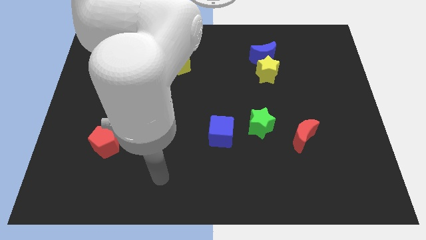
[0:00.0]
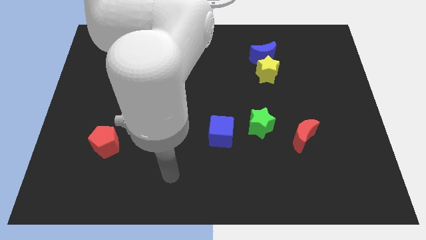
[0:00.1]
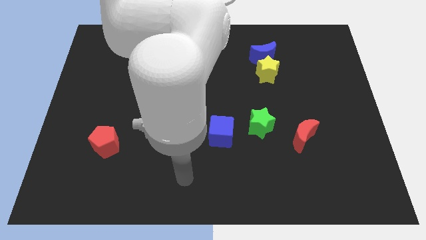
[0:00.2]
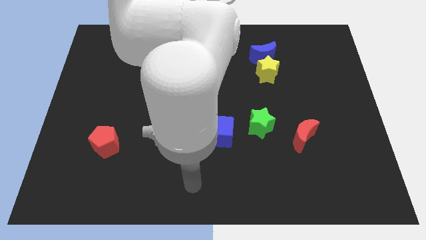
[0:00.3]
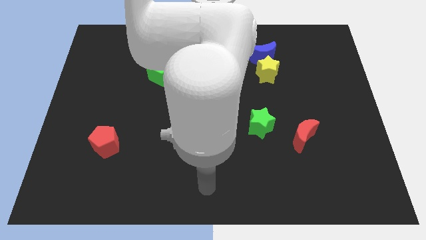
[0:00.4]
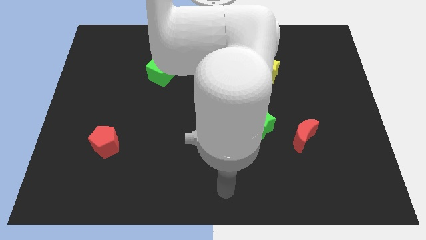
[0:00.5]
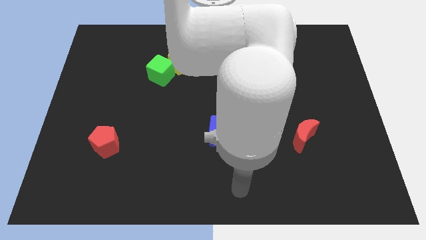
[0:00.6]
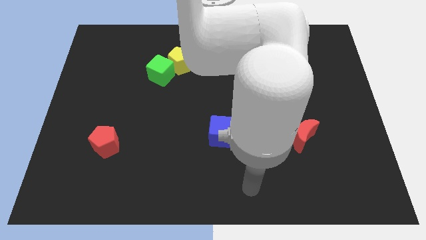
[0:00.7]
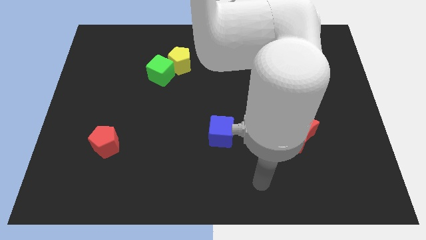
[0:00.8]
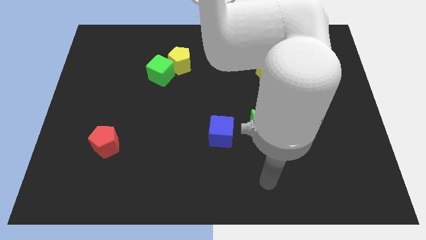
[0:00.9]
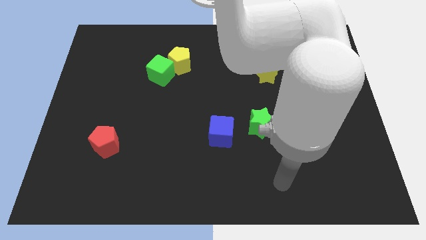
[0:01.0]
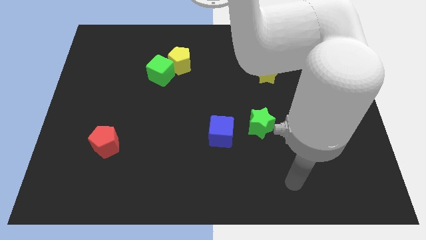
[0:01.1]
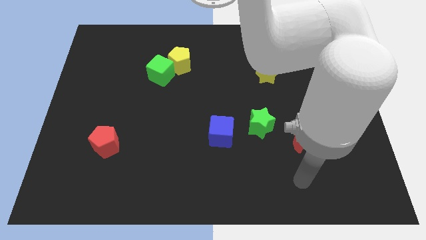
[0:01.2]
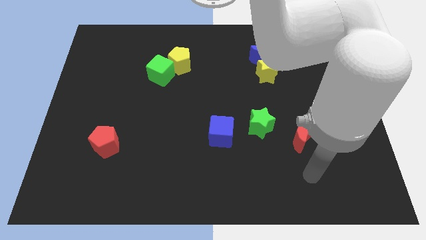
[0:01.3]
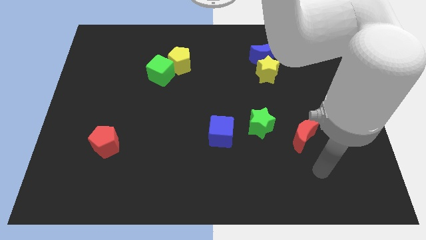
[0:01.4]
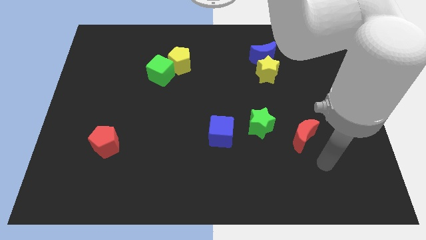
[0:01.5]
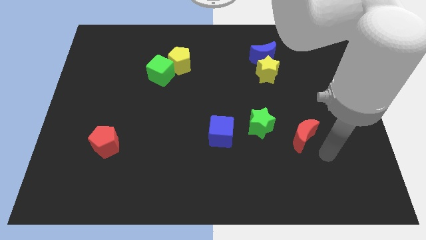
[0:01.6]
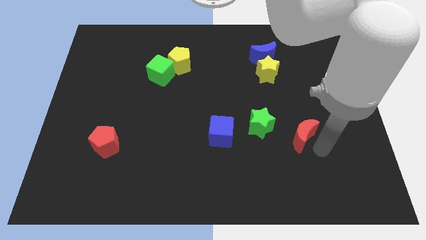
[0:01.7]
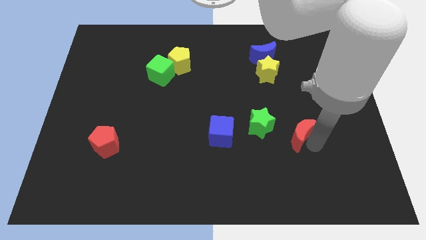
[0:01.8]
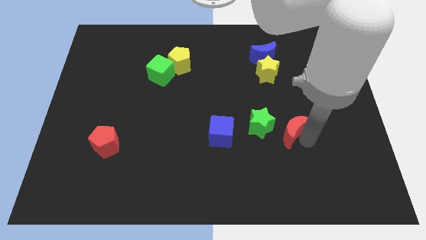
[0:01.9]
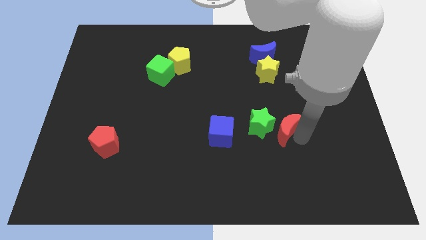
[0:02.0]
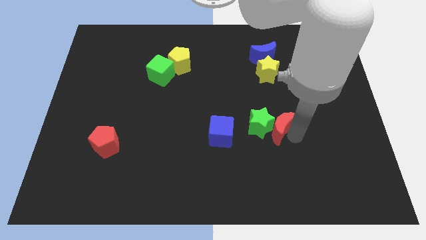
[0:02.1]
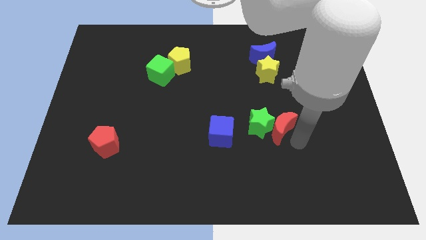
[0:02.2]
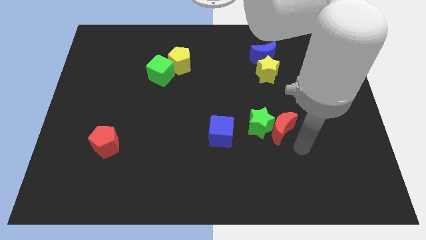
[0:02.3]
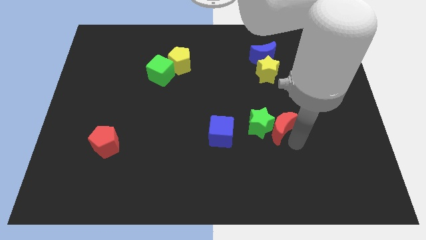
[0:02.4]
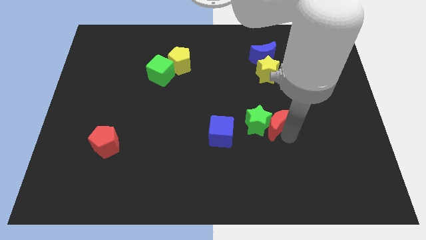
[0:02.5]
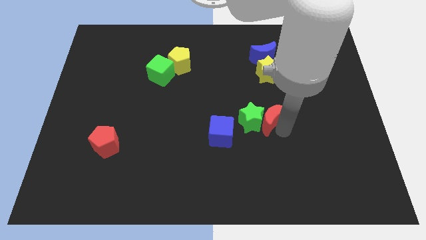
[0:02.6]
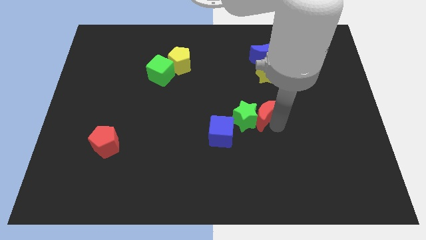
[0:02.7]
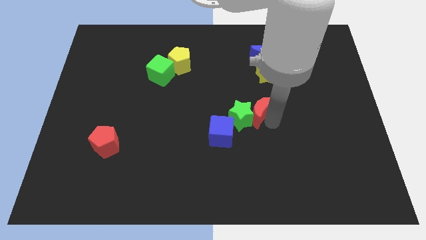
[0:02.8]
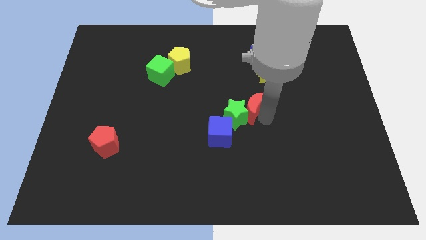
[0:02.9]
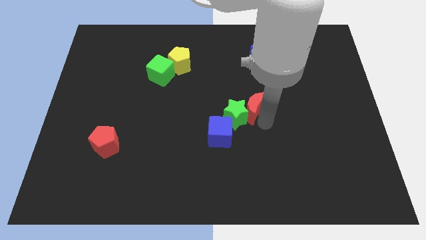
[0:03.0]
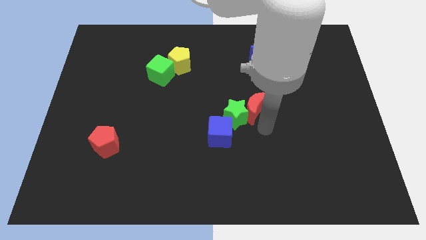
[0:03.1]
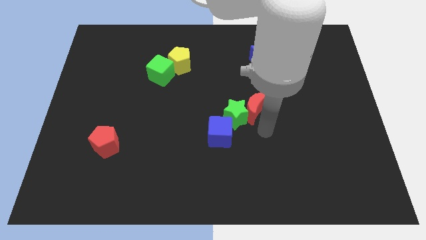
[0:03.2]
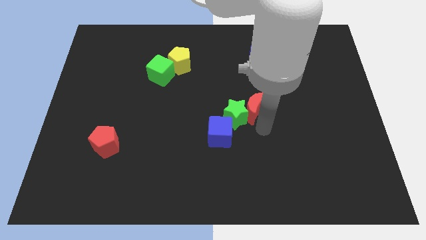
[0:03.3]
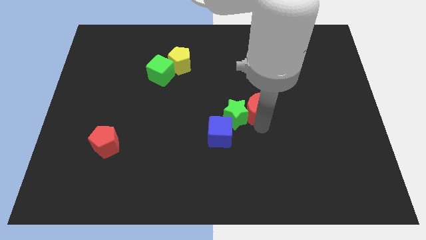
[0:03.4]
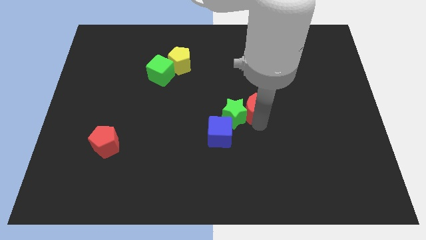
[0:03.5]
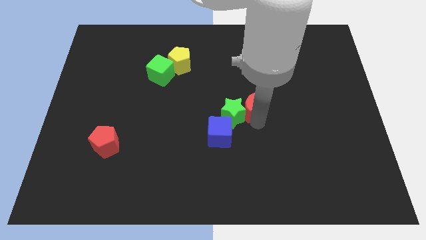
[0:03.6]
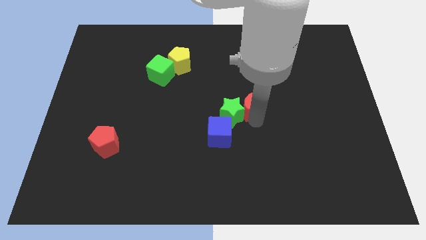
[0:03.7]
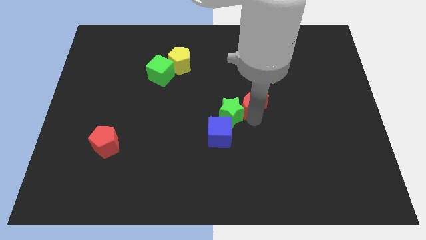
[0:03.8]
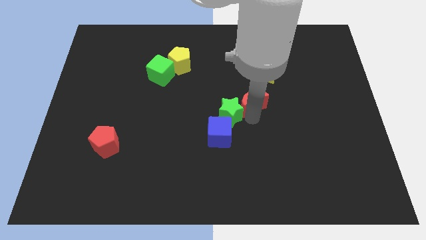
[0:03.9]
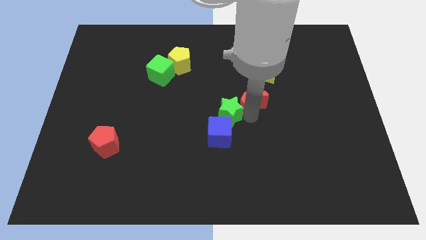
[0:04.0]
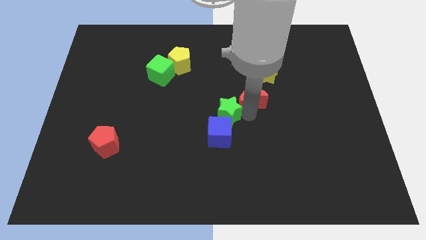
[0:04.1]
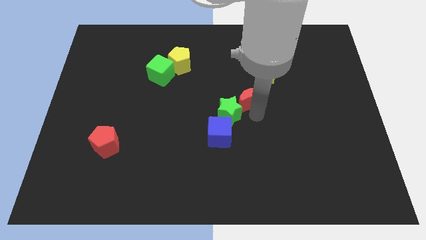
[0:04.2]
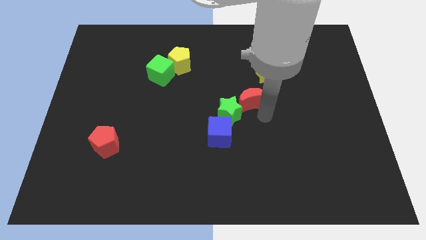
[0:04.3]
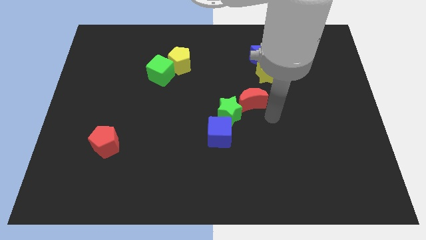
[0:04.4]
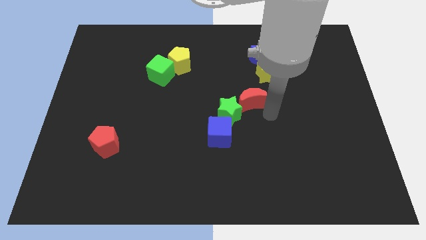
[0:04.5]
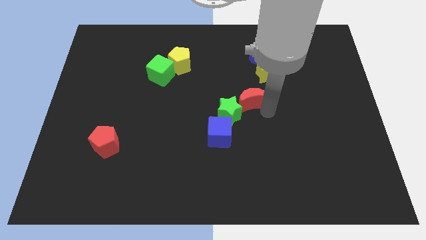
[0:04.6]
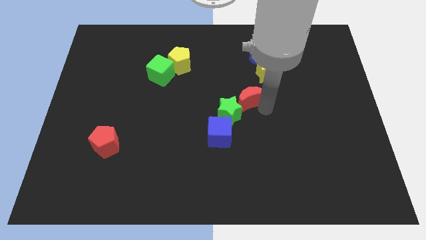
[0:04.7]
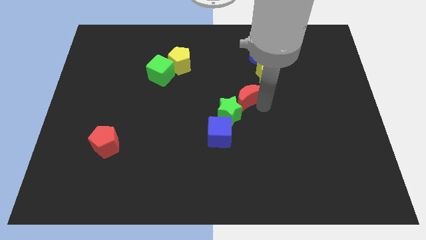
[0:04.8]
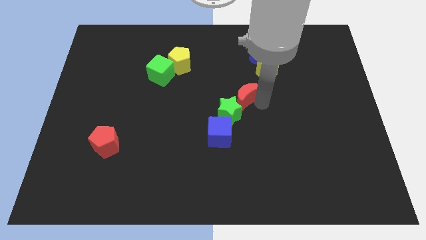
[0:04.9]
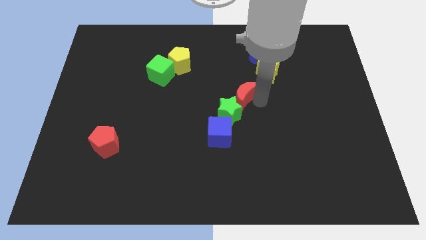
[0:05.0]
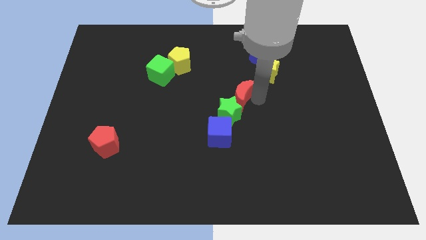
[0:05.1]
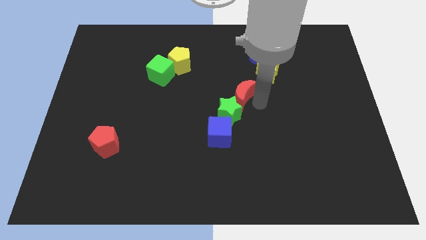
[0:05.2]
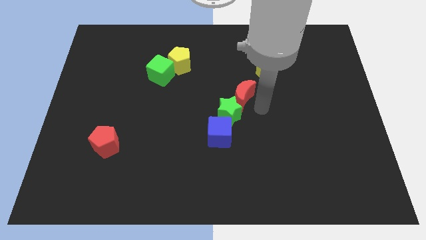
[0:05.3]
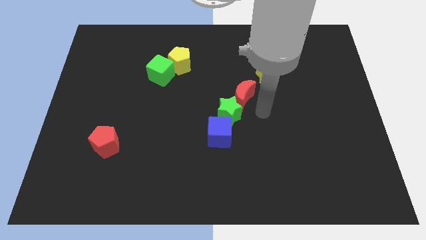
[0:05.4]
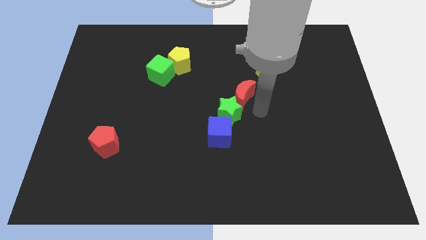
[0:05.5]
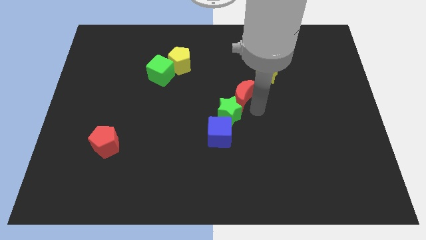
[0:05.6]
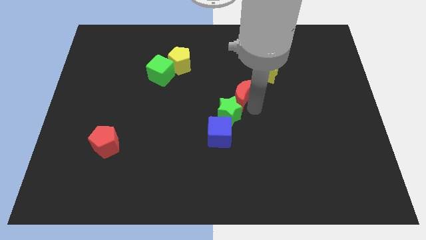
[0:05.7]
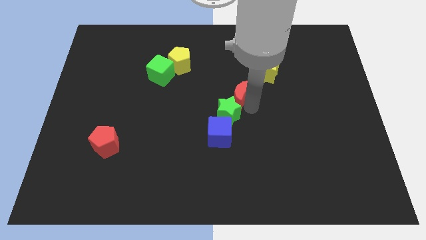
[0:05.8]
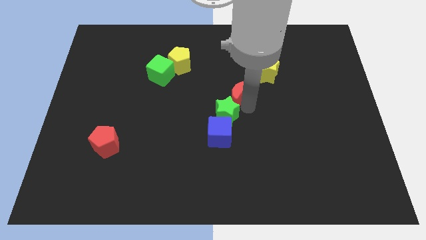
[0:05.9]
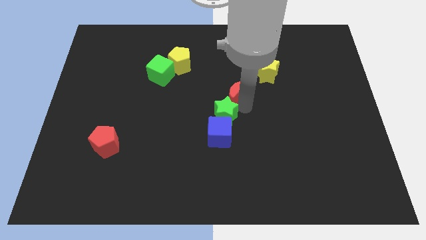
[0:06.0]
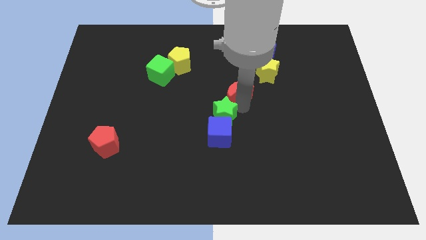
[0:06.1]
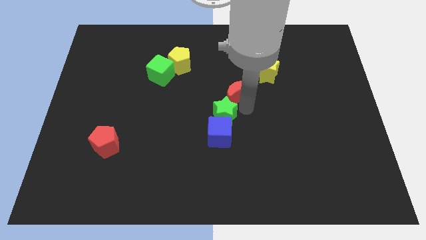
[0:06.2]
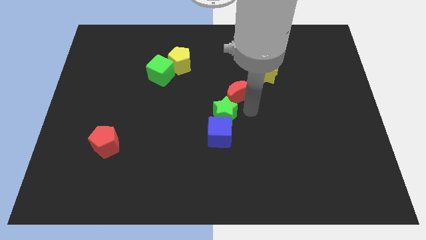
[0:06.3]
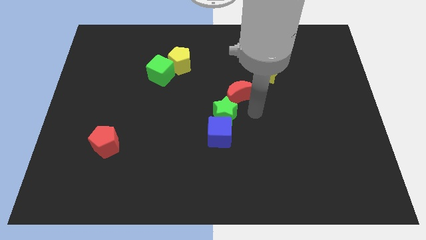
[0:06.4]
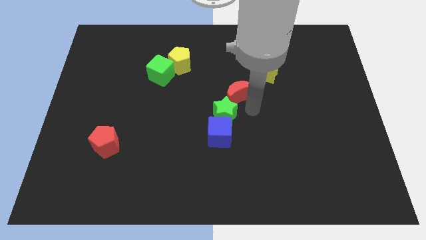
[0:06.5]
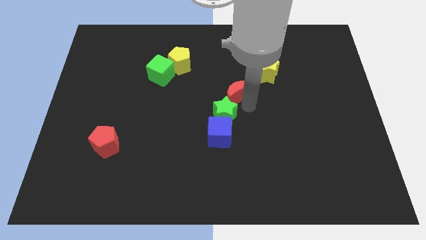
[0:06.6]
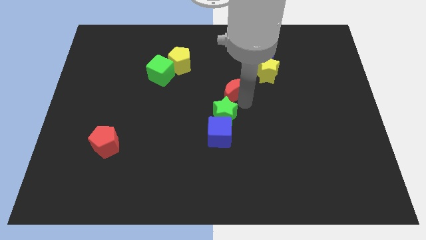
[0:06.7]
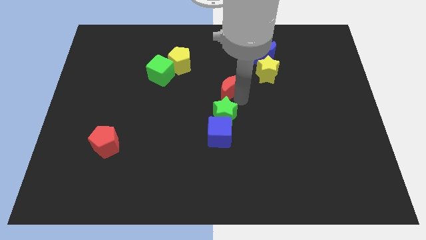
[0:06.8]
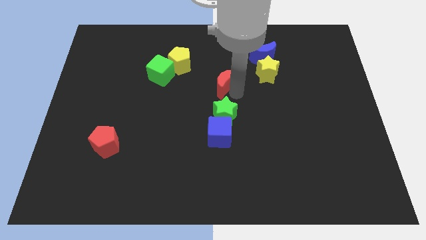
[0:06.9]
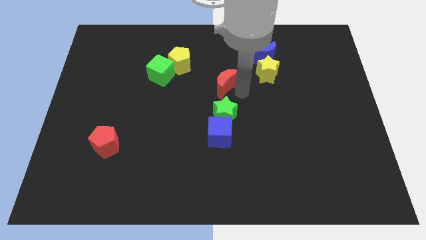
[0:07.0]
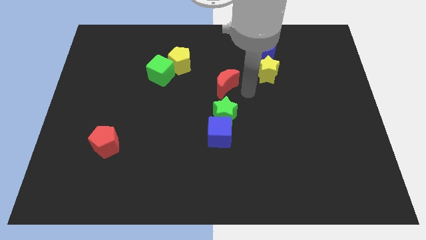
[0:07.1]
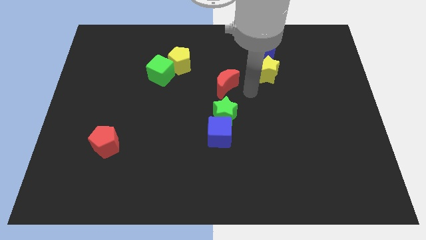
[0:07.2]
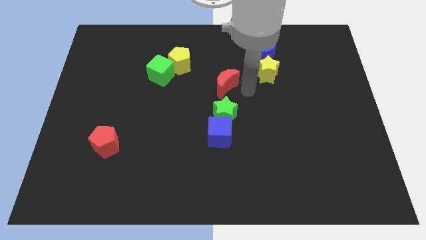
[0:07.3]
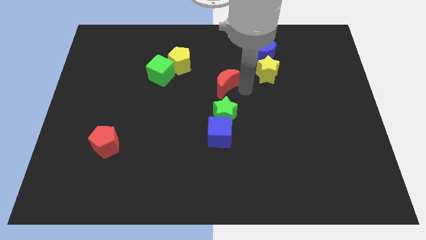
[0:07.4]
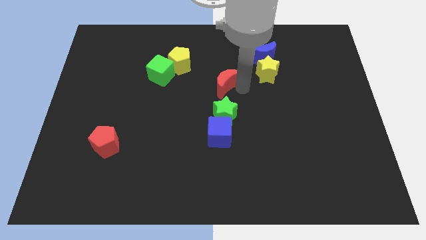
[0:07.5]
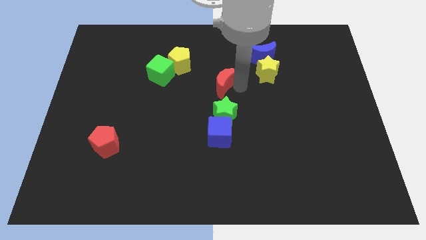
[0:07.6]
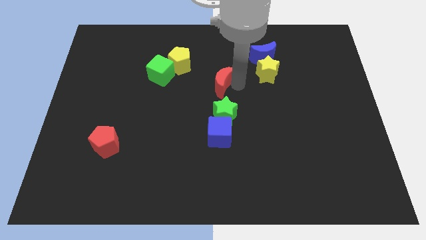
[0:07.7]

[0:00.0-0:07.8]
push the red moon to the bottom right side of the yellow pentagon
